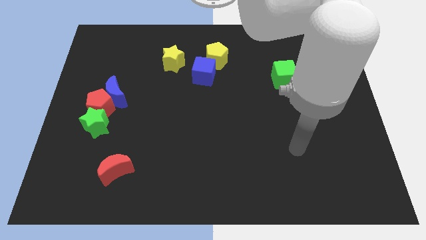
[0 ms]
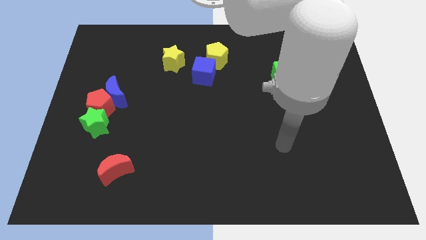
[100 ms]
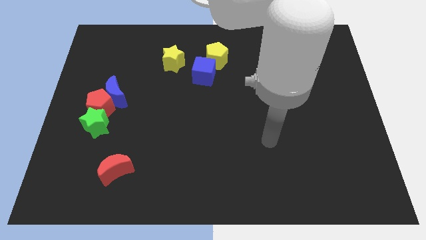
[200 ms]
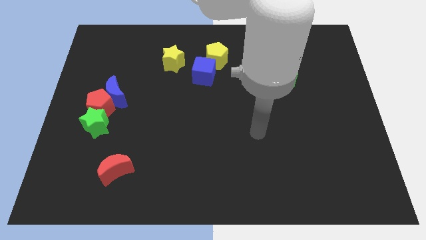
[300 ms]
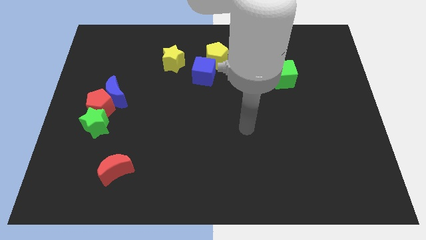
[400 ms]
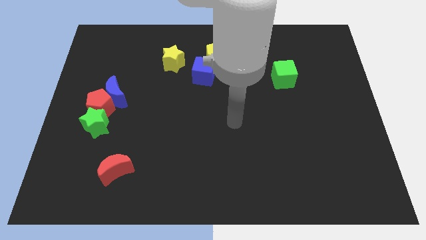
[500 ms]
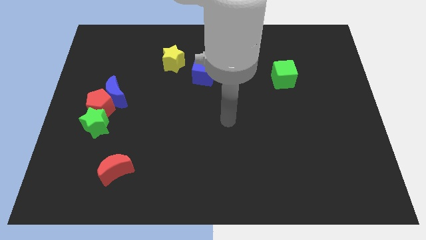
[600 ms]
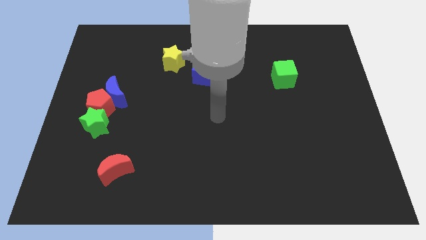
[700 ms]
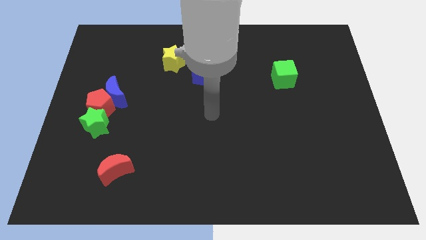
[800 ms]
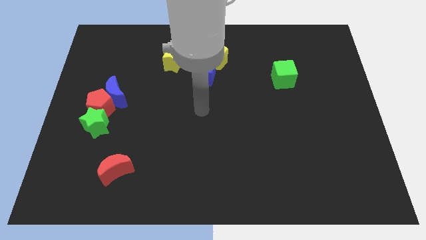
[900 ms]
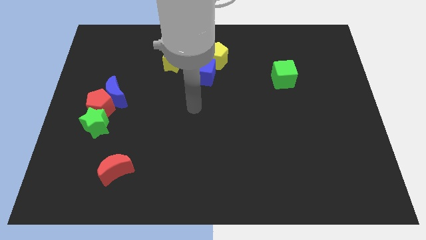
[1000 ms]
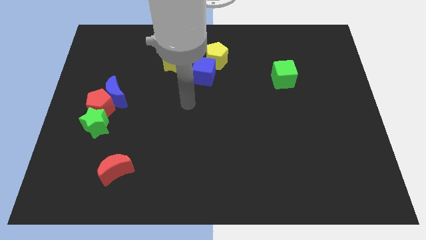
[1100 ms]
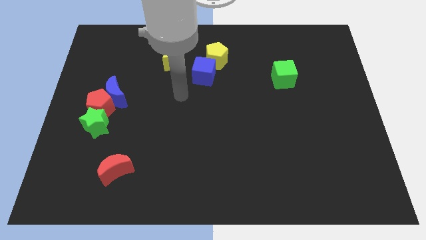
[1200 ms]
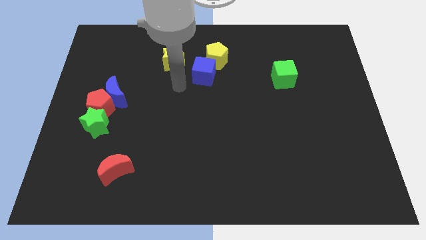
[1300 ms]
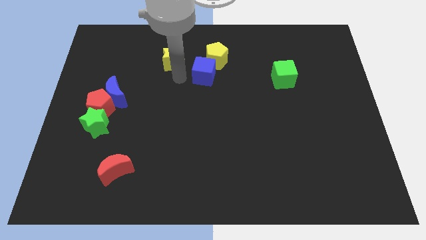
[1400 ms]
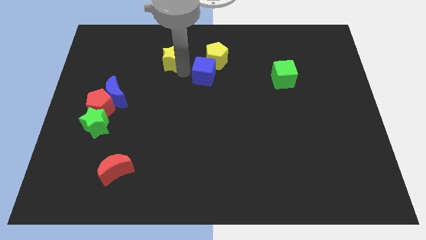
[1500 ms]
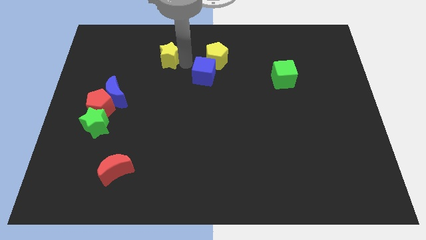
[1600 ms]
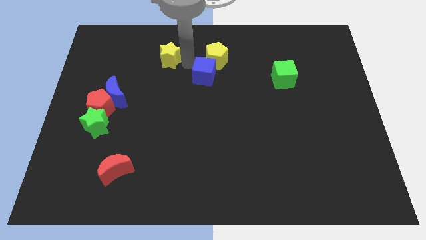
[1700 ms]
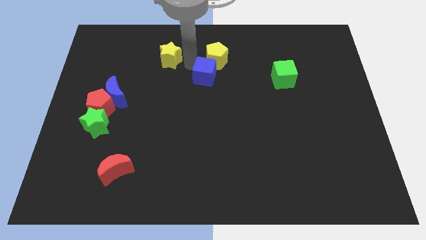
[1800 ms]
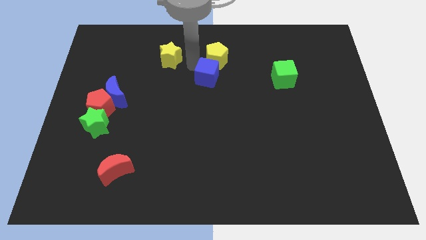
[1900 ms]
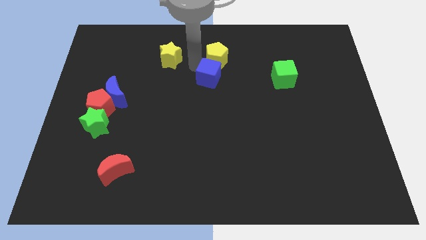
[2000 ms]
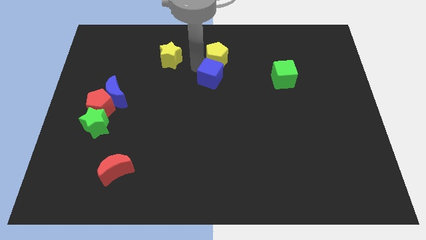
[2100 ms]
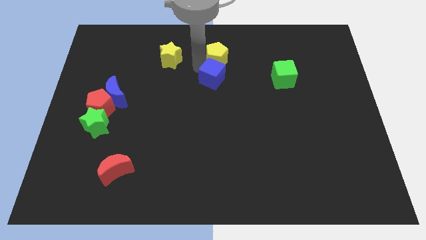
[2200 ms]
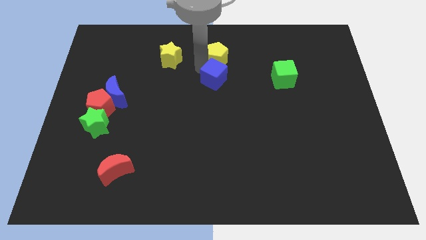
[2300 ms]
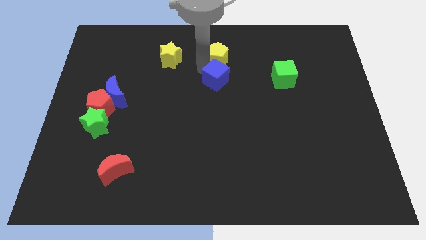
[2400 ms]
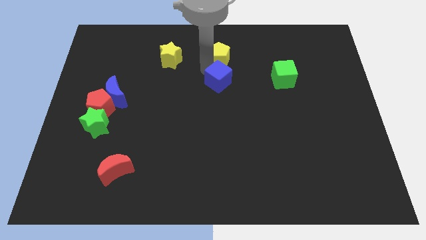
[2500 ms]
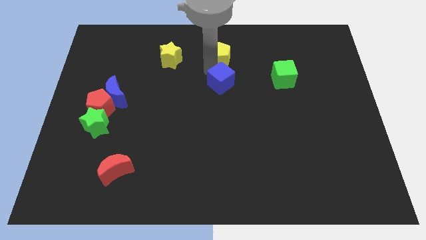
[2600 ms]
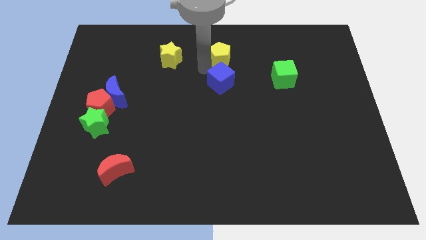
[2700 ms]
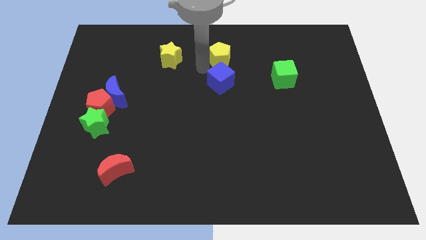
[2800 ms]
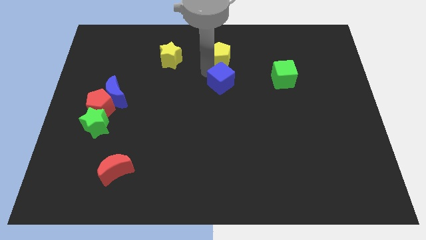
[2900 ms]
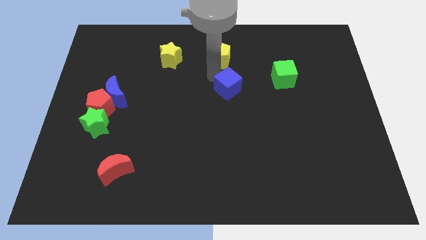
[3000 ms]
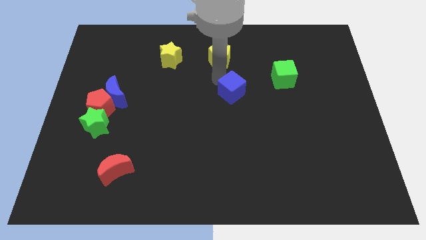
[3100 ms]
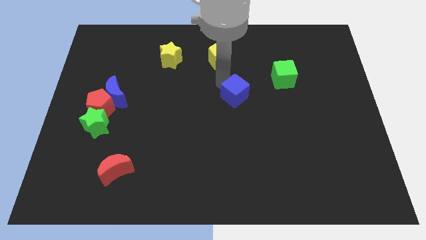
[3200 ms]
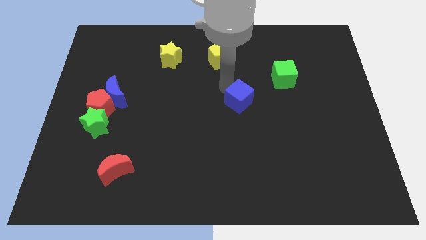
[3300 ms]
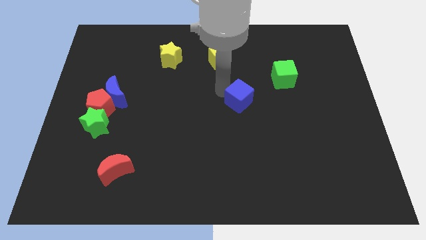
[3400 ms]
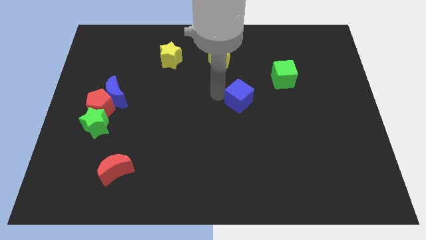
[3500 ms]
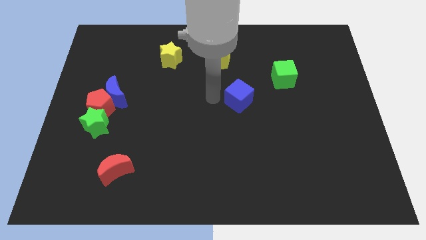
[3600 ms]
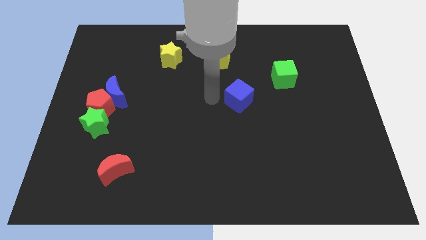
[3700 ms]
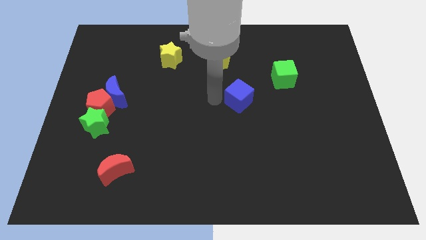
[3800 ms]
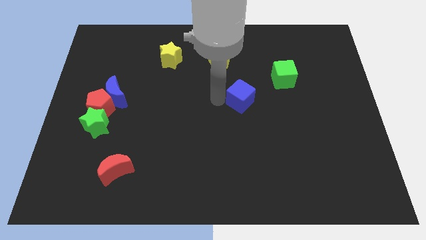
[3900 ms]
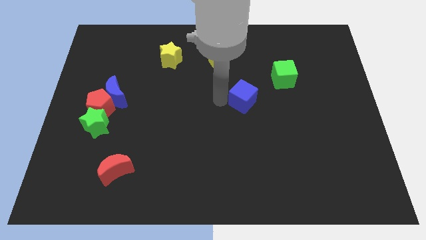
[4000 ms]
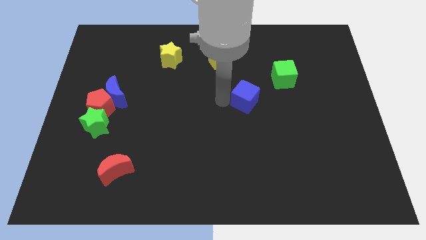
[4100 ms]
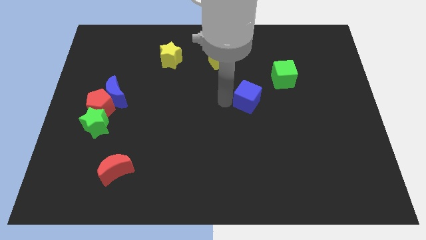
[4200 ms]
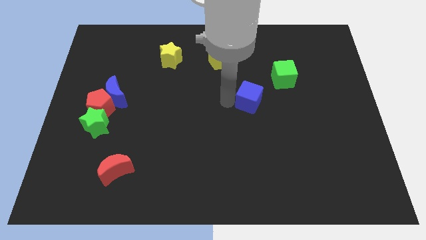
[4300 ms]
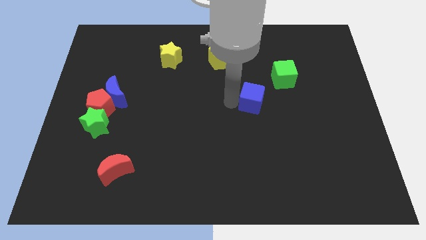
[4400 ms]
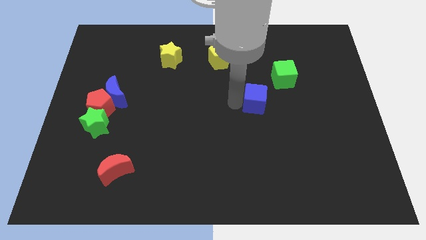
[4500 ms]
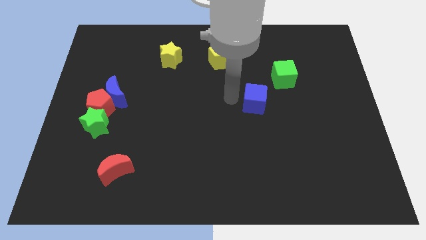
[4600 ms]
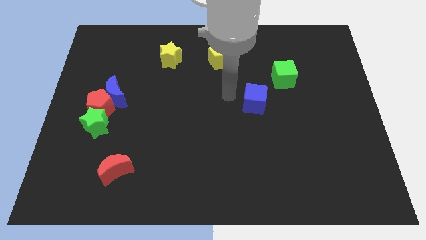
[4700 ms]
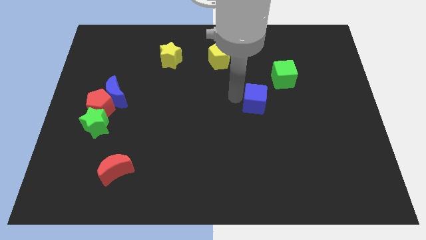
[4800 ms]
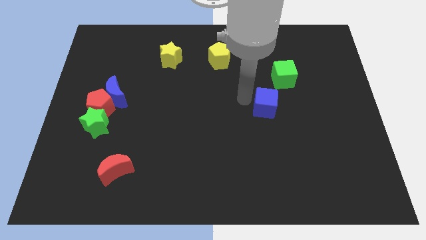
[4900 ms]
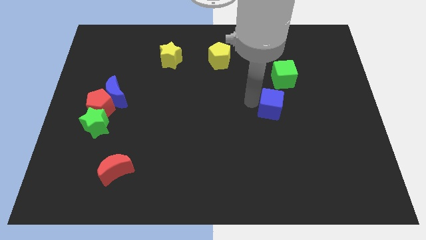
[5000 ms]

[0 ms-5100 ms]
move the blue cube to the bottom of the green cube

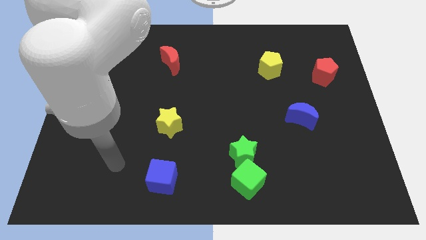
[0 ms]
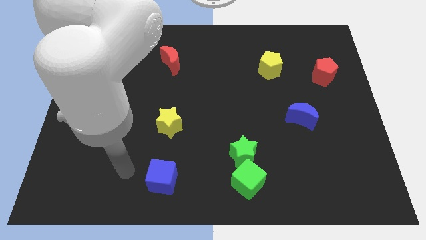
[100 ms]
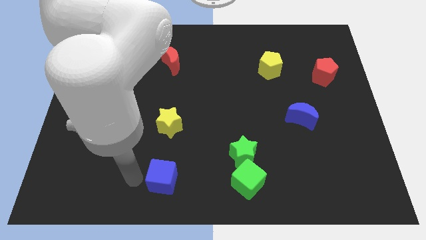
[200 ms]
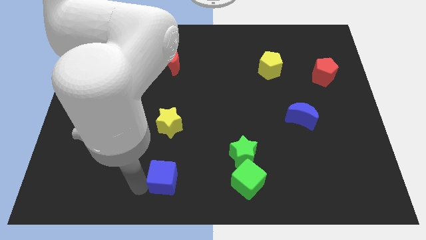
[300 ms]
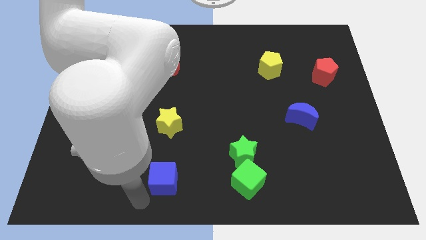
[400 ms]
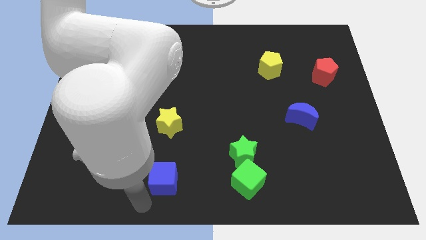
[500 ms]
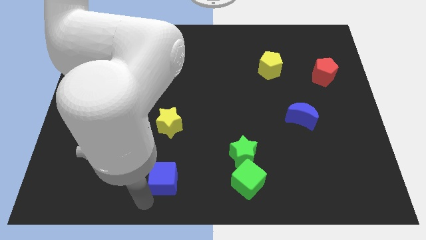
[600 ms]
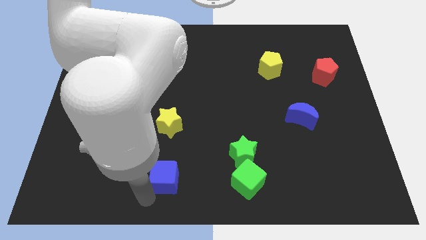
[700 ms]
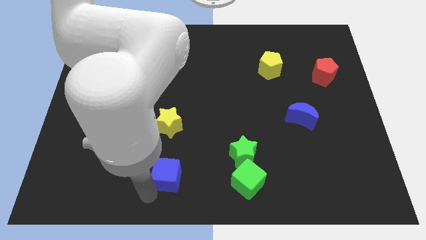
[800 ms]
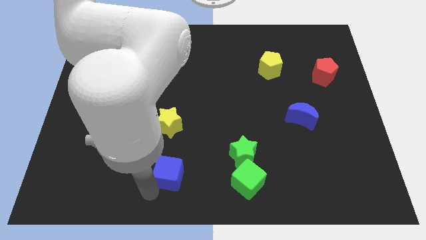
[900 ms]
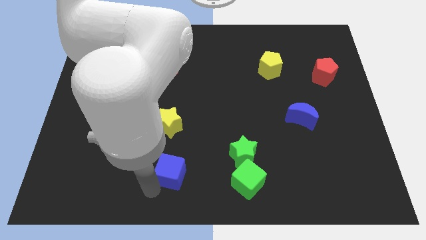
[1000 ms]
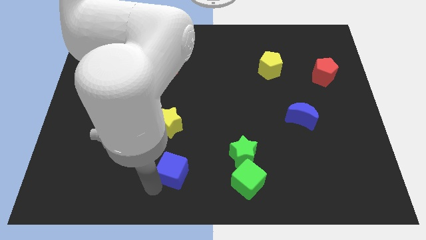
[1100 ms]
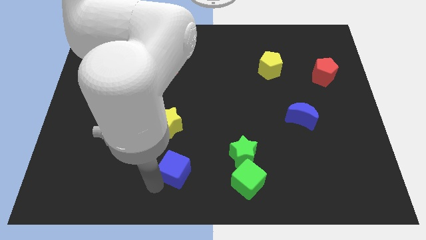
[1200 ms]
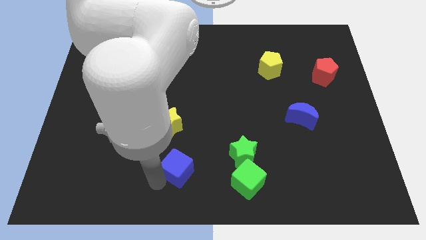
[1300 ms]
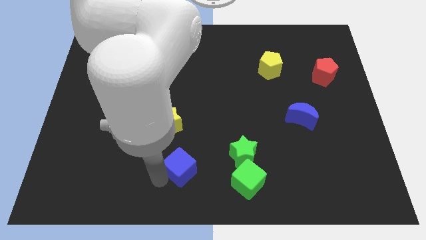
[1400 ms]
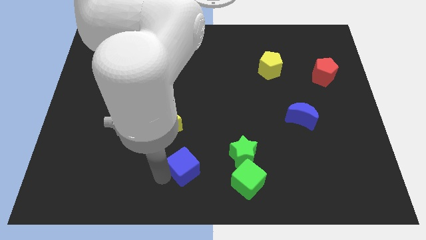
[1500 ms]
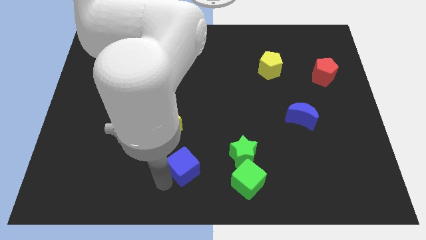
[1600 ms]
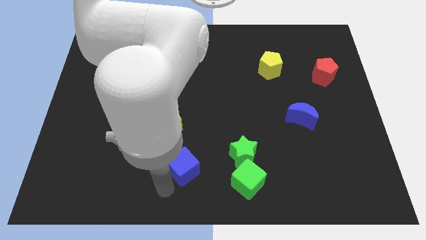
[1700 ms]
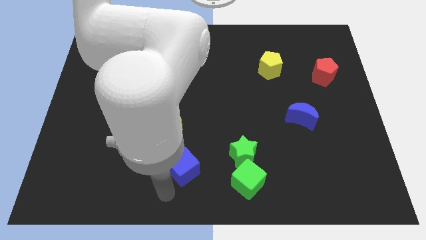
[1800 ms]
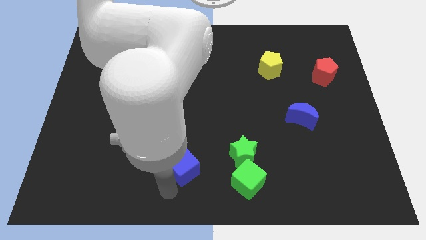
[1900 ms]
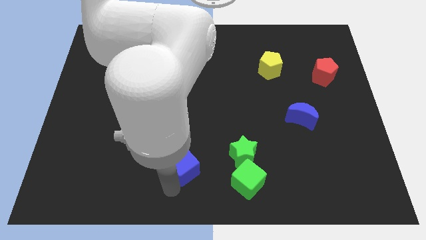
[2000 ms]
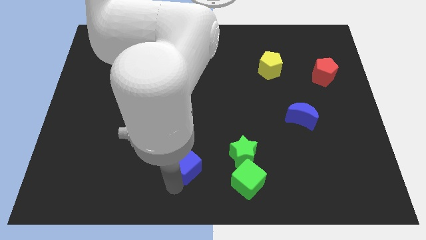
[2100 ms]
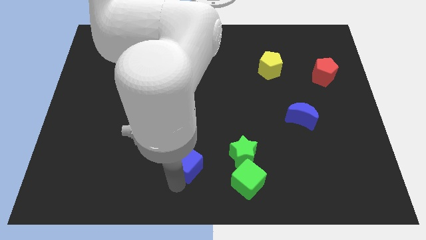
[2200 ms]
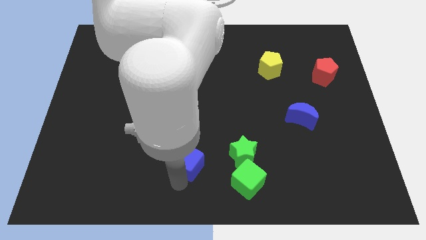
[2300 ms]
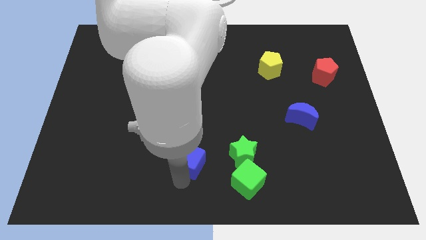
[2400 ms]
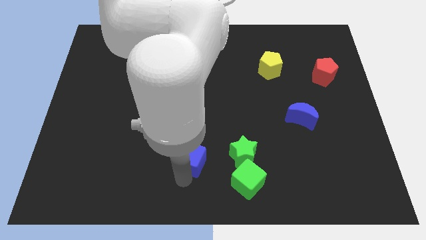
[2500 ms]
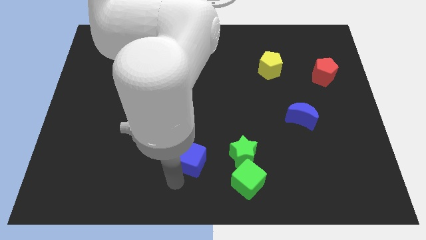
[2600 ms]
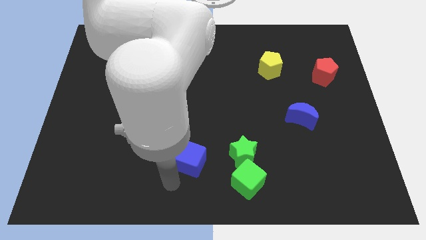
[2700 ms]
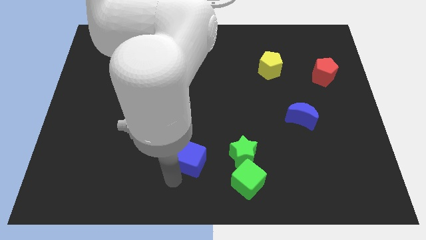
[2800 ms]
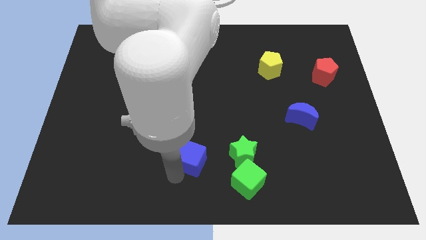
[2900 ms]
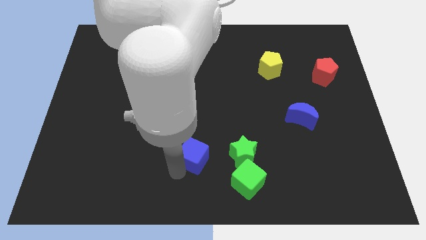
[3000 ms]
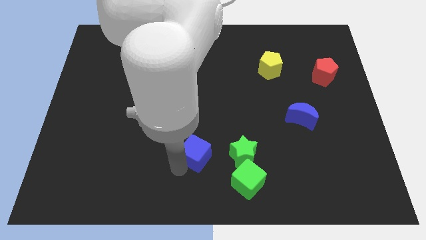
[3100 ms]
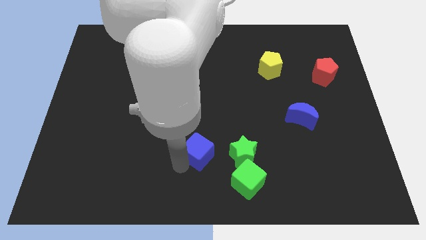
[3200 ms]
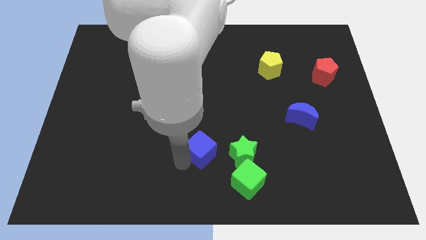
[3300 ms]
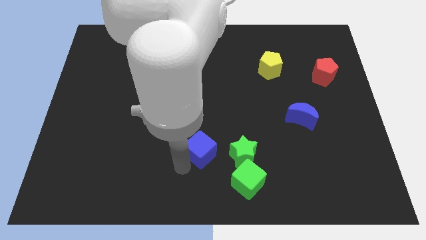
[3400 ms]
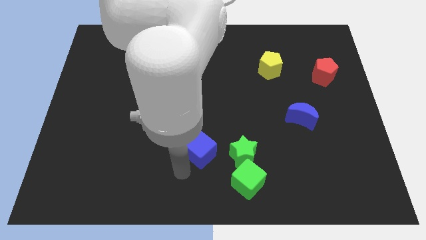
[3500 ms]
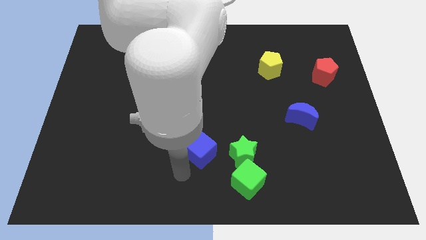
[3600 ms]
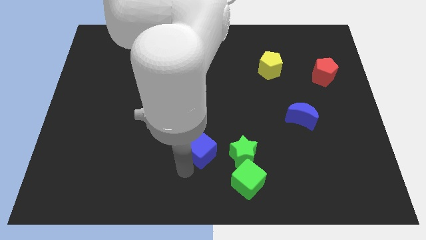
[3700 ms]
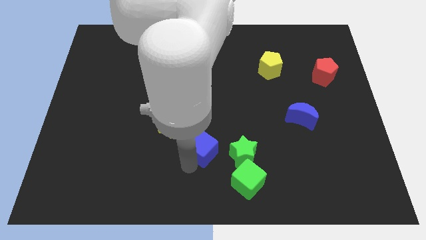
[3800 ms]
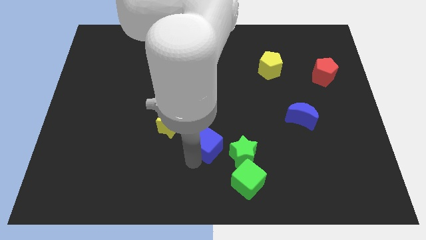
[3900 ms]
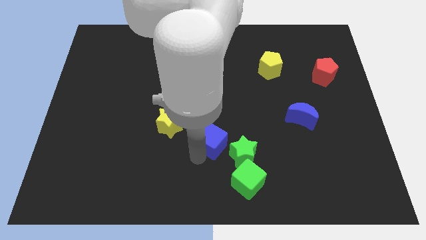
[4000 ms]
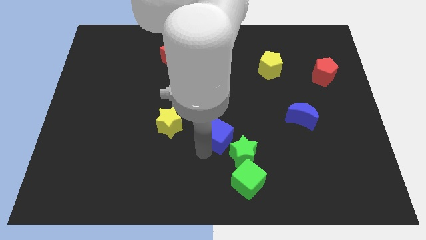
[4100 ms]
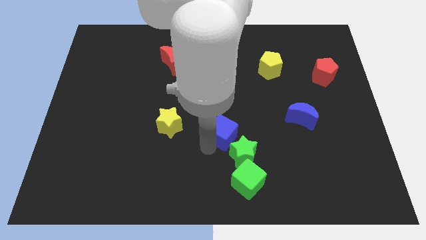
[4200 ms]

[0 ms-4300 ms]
slide the blue cube to the top of the green star
